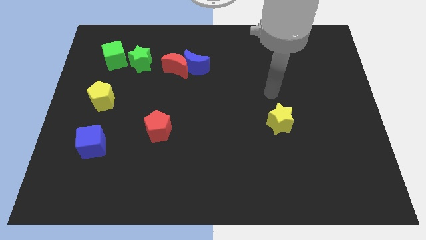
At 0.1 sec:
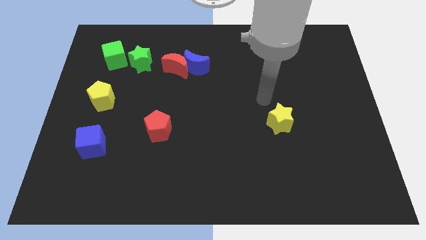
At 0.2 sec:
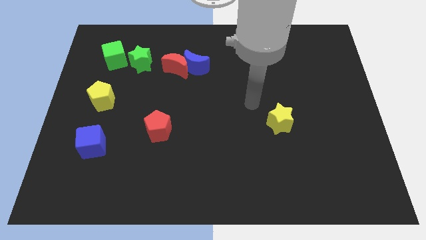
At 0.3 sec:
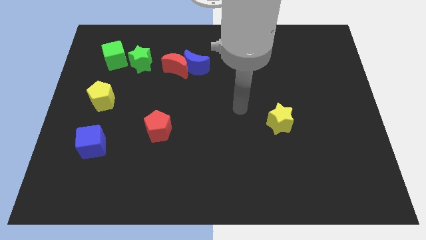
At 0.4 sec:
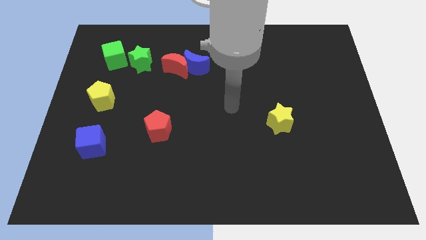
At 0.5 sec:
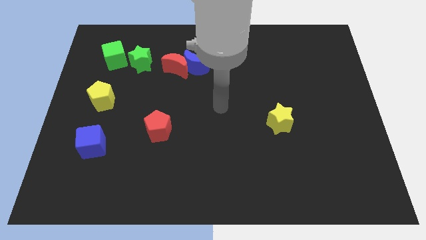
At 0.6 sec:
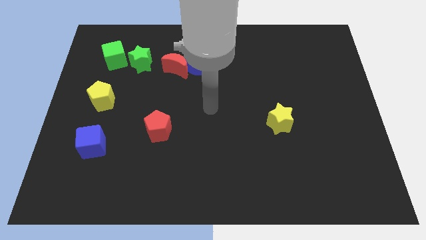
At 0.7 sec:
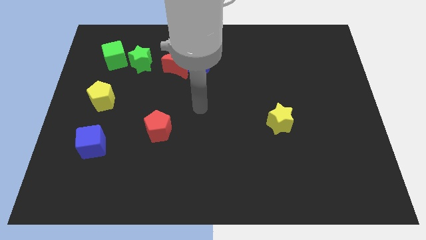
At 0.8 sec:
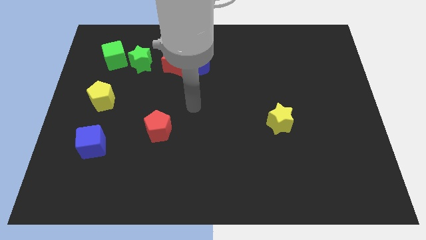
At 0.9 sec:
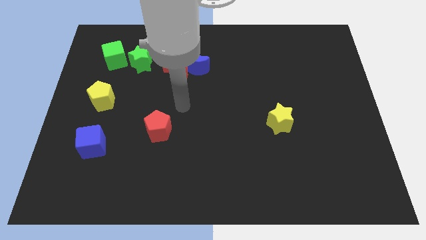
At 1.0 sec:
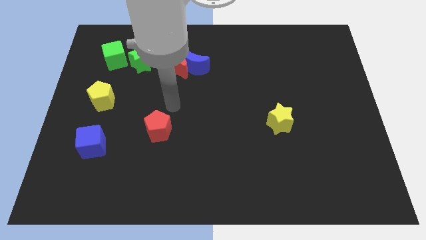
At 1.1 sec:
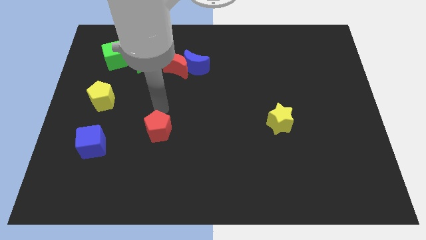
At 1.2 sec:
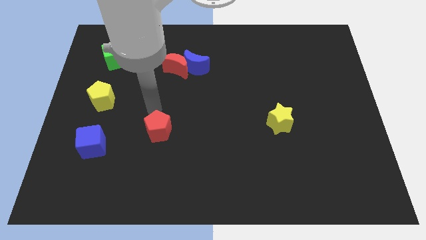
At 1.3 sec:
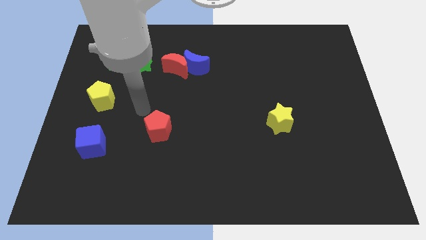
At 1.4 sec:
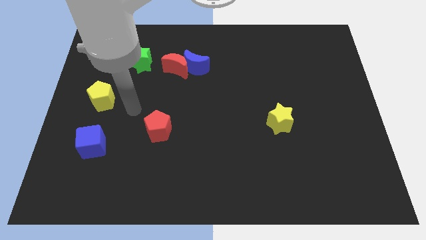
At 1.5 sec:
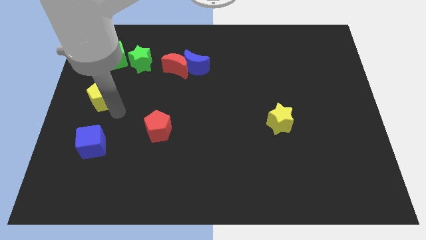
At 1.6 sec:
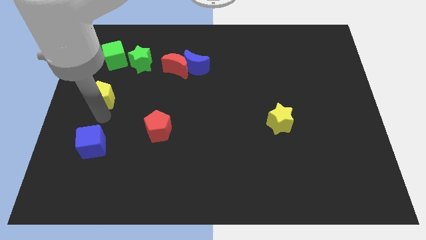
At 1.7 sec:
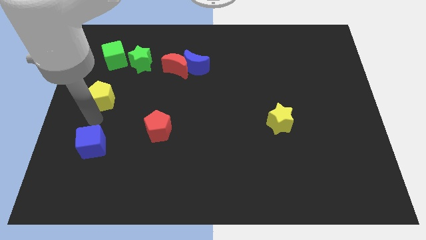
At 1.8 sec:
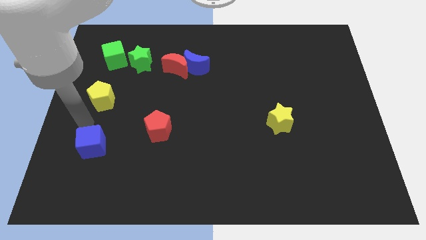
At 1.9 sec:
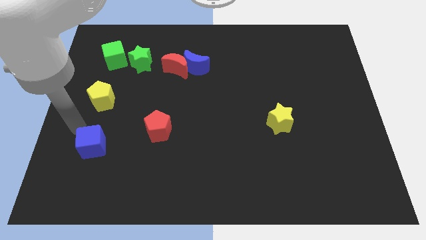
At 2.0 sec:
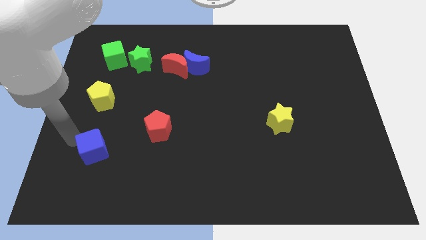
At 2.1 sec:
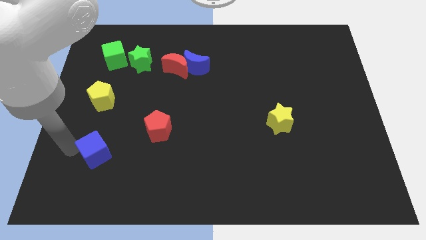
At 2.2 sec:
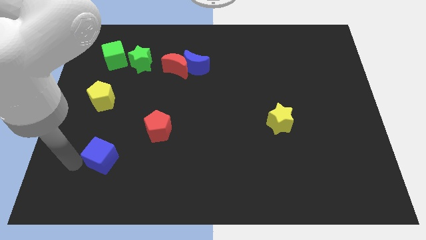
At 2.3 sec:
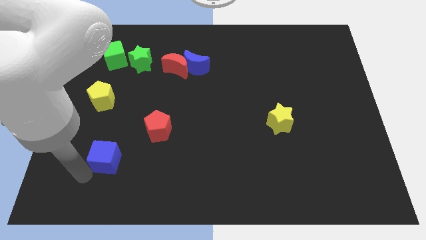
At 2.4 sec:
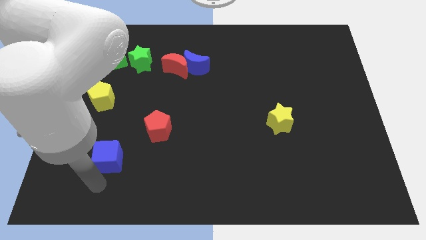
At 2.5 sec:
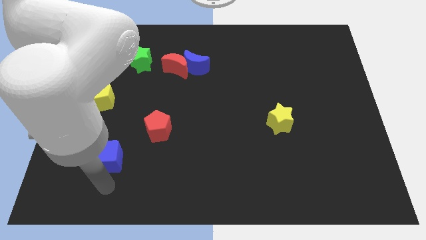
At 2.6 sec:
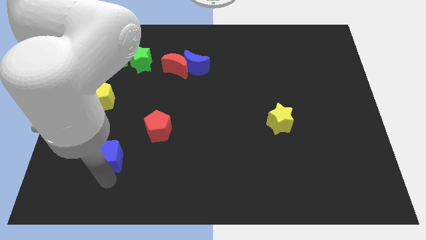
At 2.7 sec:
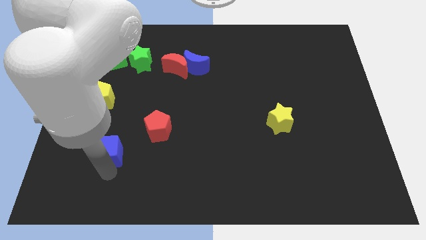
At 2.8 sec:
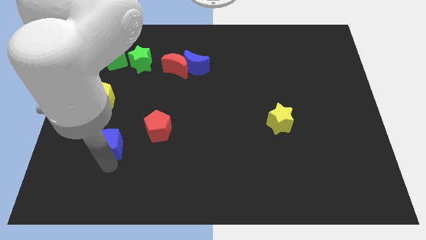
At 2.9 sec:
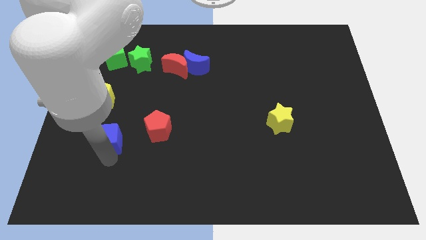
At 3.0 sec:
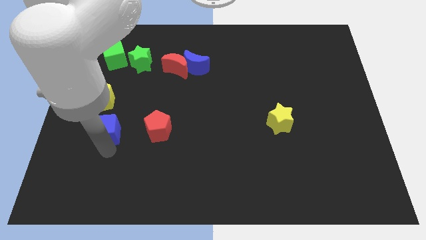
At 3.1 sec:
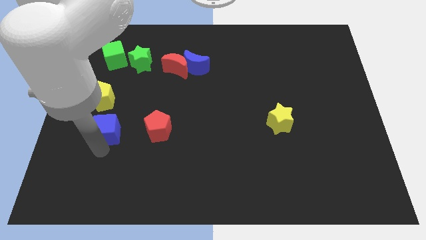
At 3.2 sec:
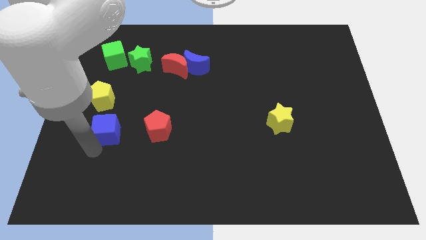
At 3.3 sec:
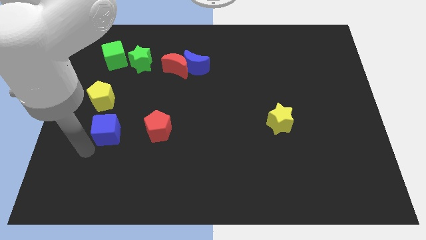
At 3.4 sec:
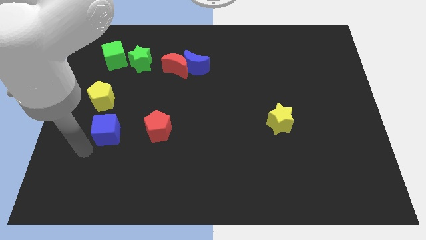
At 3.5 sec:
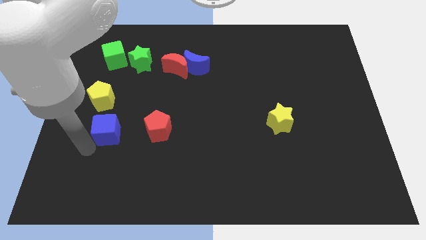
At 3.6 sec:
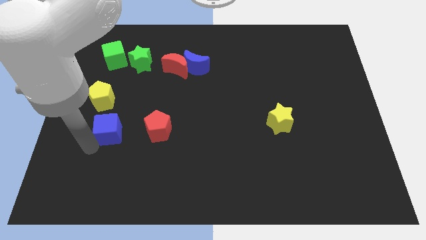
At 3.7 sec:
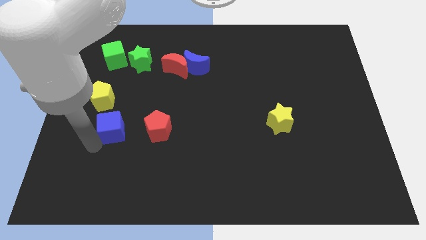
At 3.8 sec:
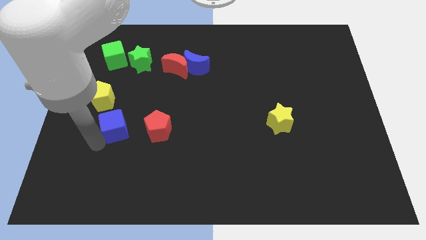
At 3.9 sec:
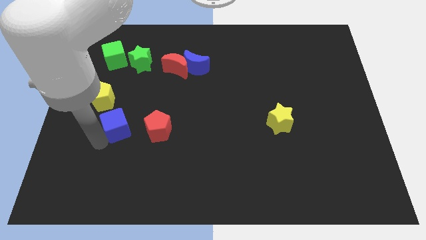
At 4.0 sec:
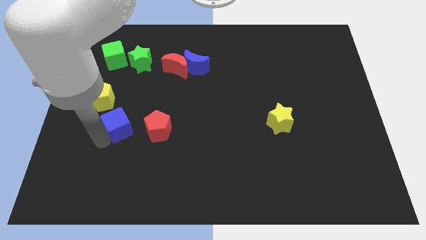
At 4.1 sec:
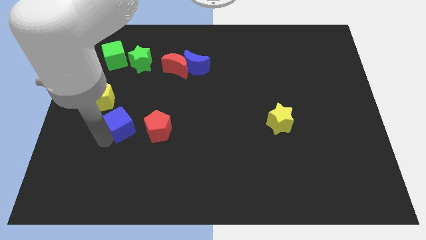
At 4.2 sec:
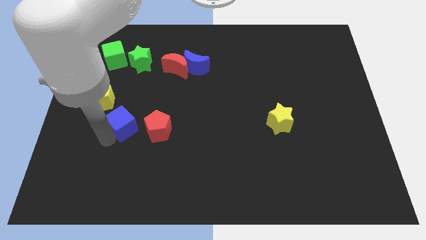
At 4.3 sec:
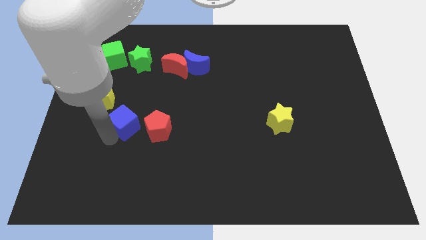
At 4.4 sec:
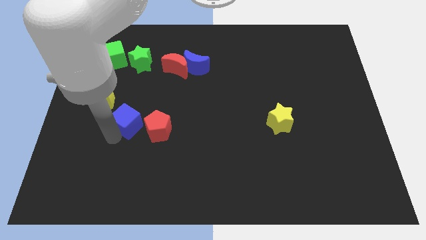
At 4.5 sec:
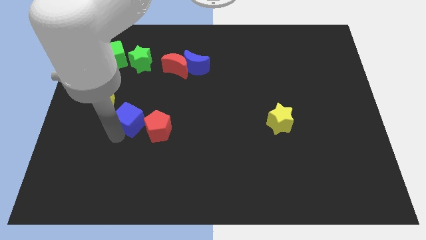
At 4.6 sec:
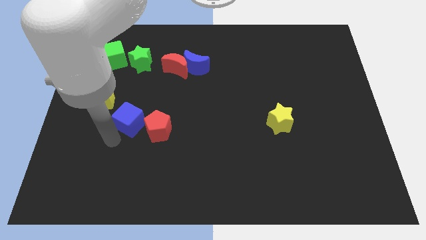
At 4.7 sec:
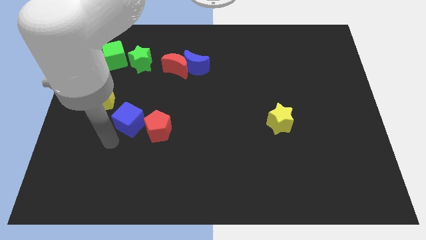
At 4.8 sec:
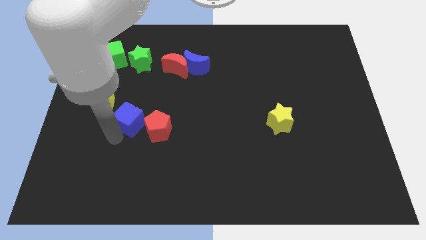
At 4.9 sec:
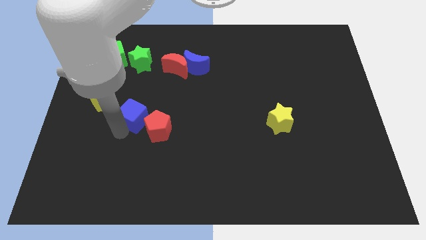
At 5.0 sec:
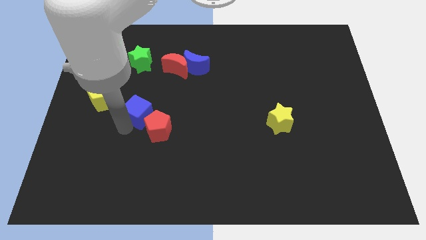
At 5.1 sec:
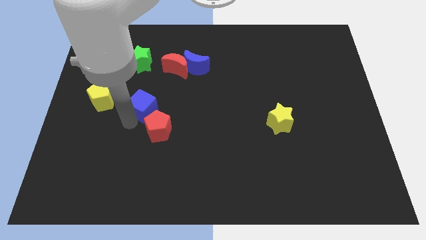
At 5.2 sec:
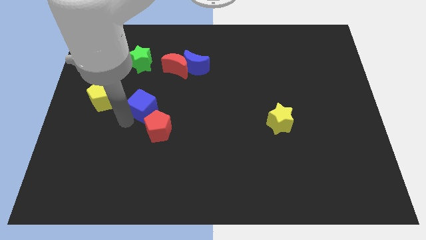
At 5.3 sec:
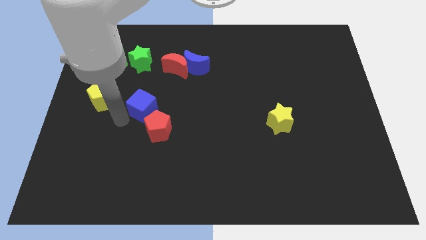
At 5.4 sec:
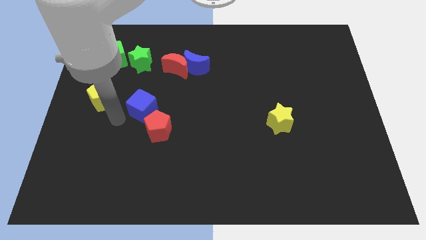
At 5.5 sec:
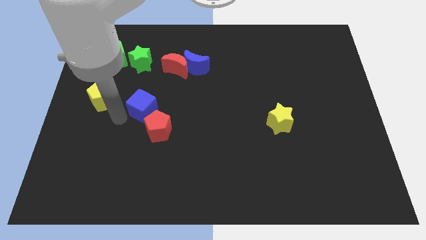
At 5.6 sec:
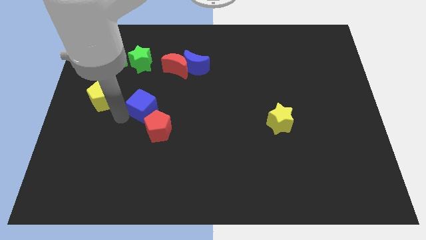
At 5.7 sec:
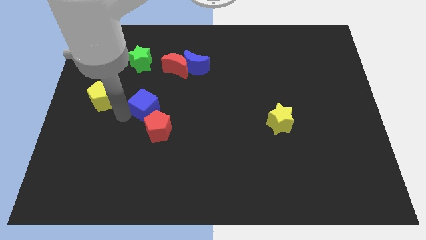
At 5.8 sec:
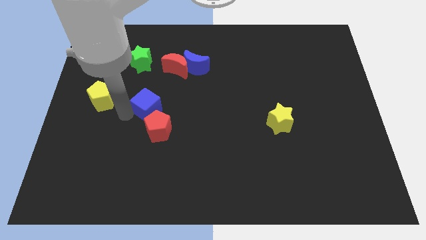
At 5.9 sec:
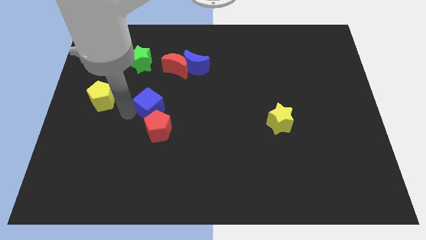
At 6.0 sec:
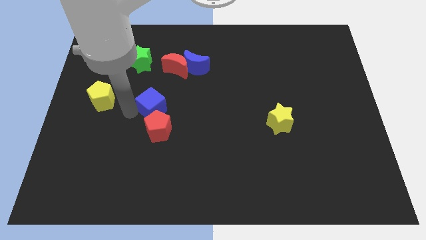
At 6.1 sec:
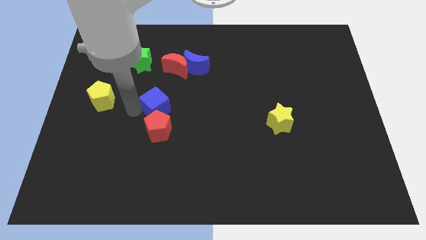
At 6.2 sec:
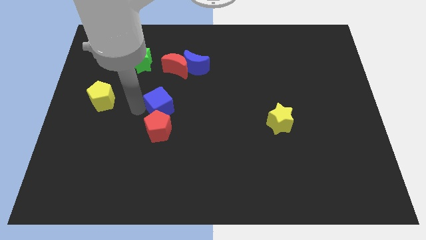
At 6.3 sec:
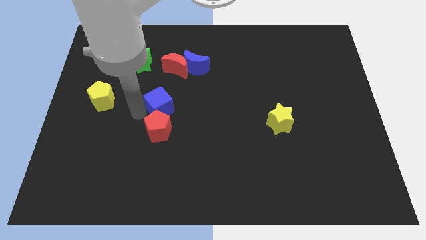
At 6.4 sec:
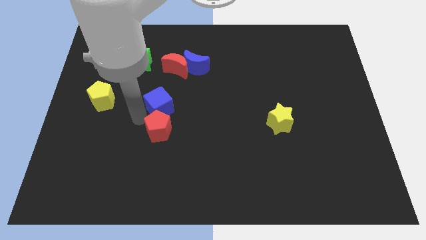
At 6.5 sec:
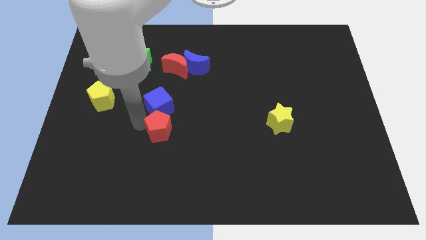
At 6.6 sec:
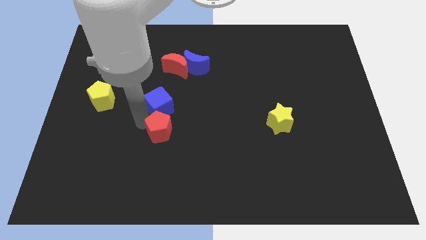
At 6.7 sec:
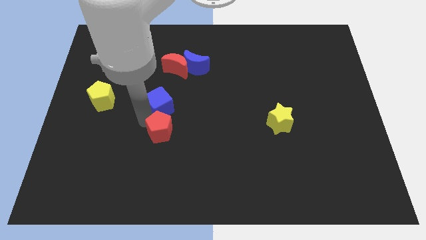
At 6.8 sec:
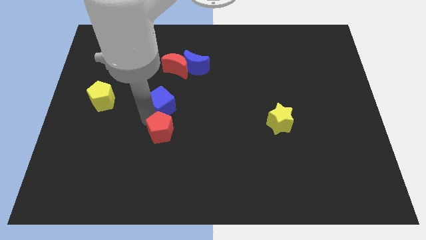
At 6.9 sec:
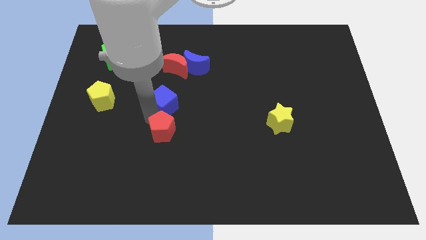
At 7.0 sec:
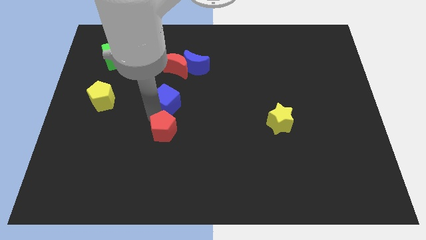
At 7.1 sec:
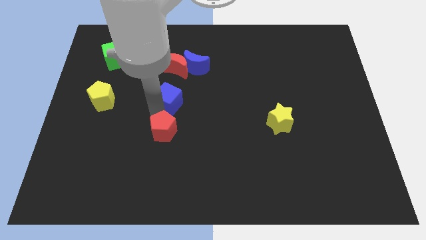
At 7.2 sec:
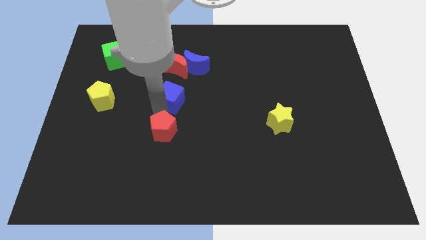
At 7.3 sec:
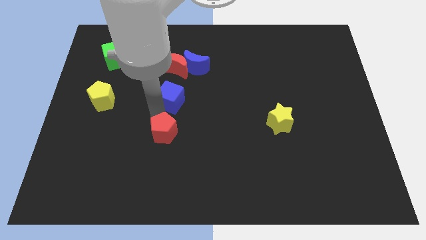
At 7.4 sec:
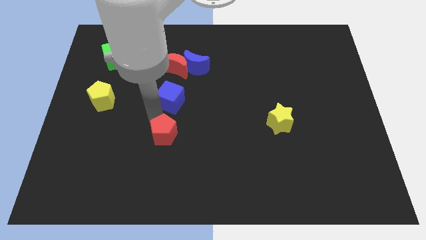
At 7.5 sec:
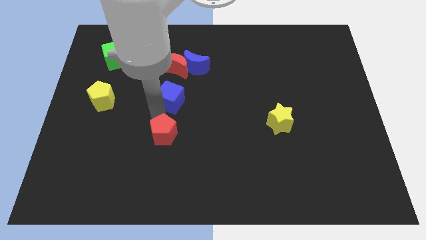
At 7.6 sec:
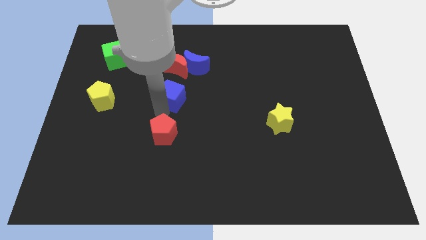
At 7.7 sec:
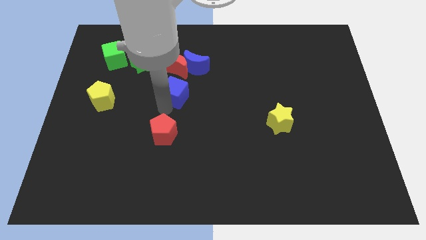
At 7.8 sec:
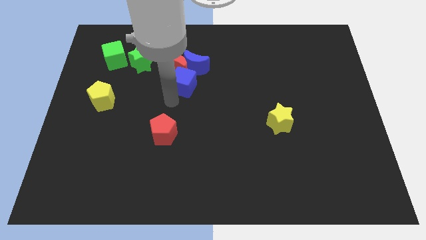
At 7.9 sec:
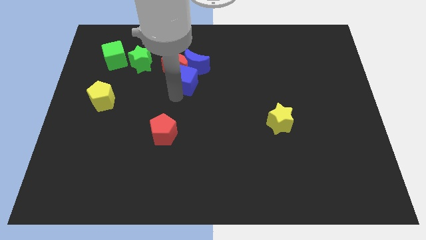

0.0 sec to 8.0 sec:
slide the blue cube to the blue moon

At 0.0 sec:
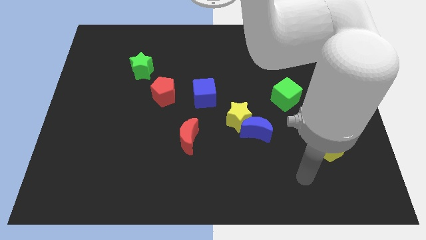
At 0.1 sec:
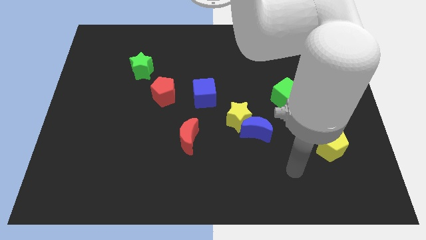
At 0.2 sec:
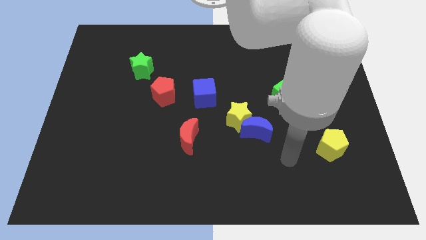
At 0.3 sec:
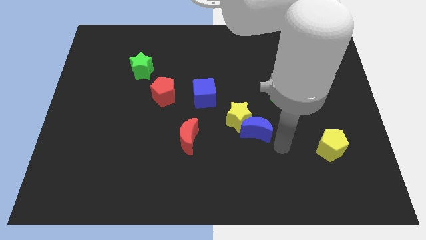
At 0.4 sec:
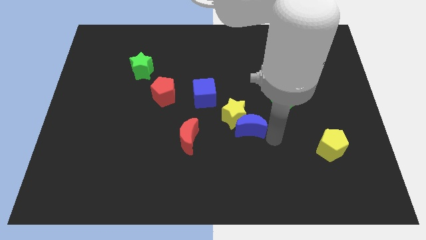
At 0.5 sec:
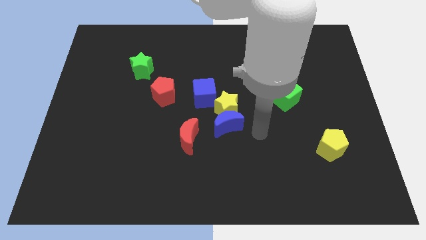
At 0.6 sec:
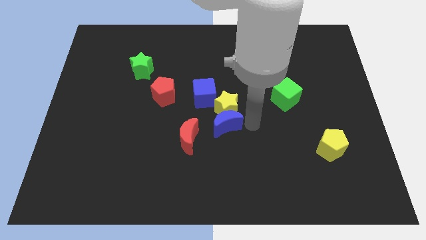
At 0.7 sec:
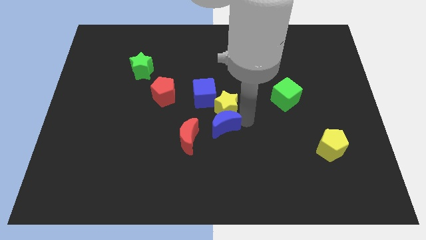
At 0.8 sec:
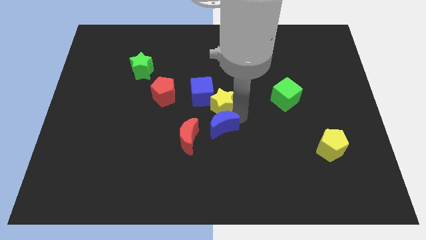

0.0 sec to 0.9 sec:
move the yellow star next to the blue cube
